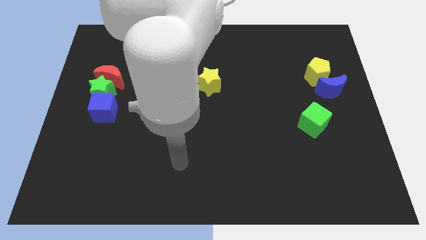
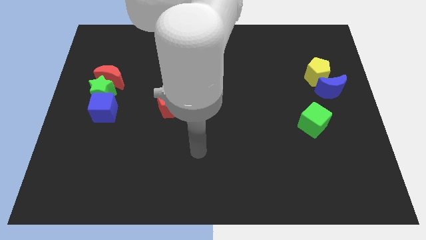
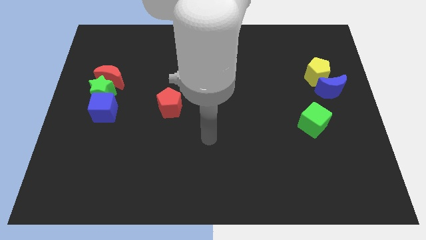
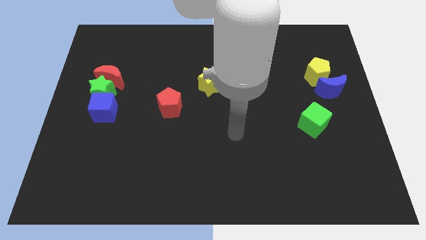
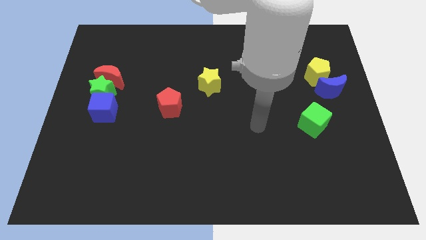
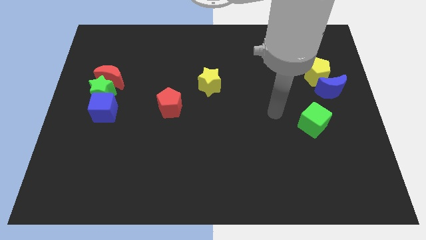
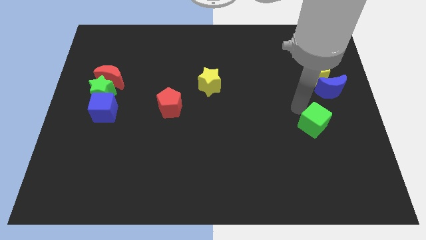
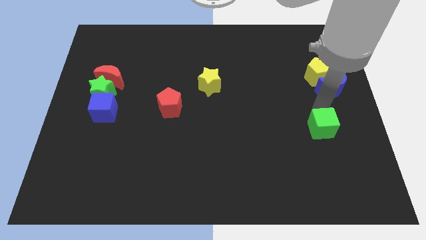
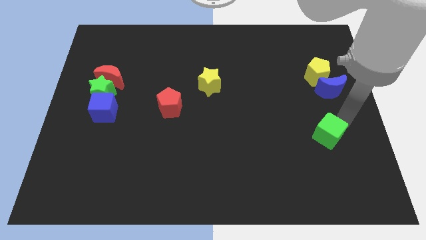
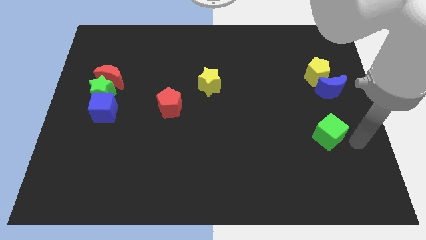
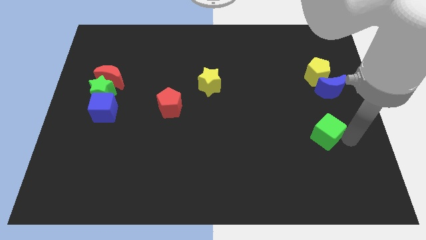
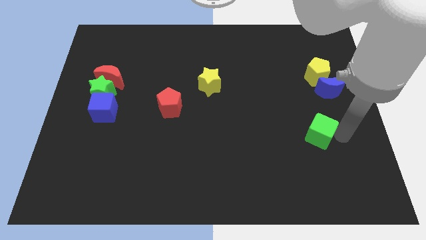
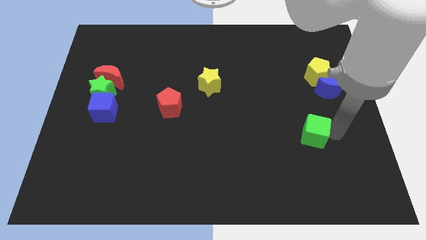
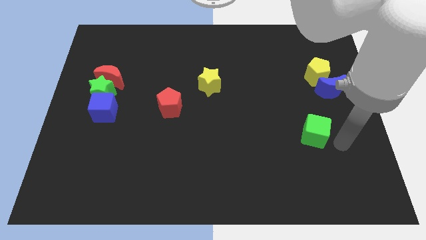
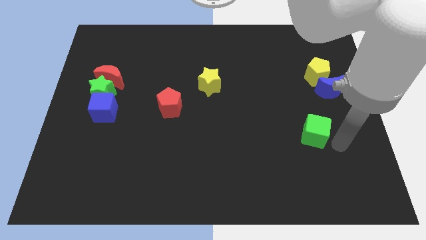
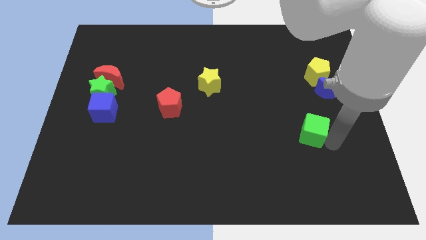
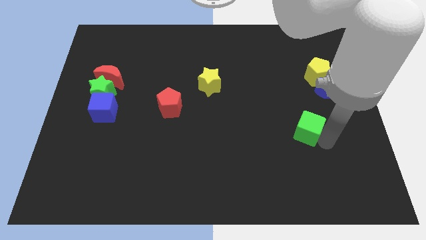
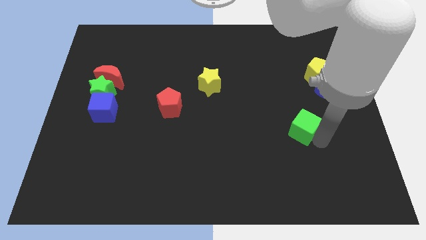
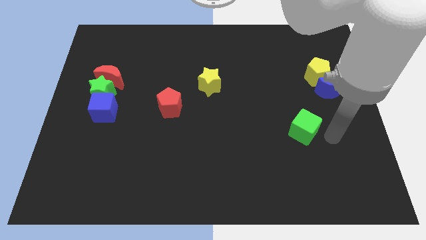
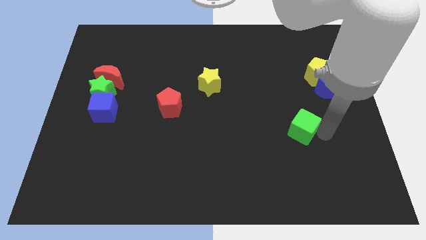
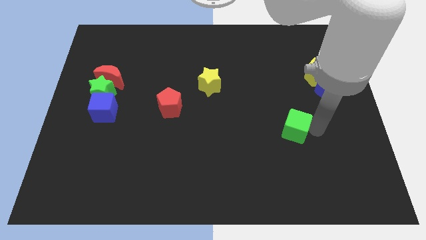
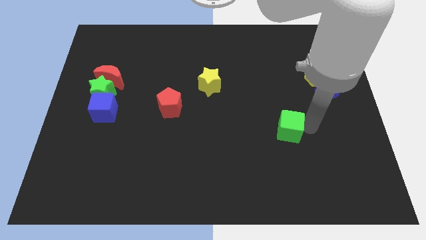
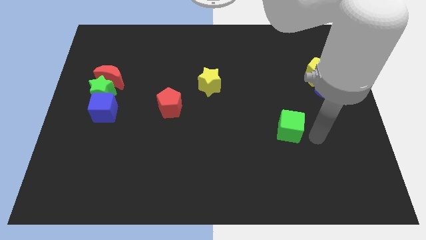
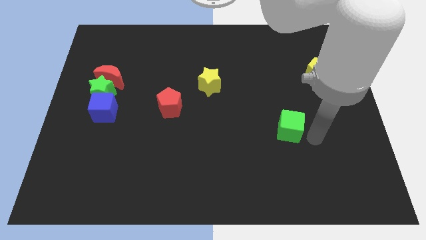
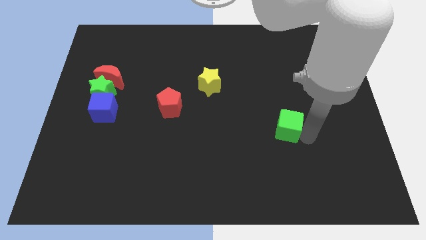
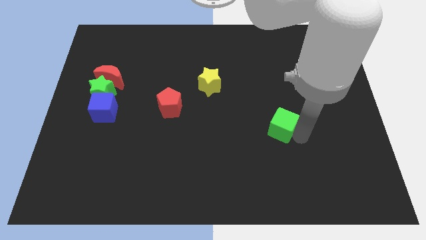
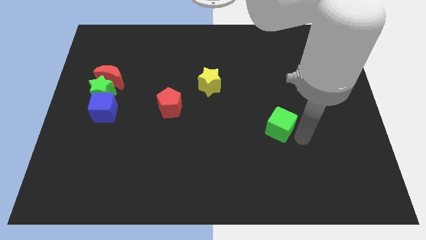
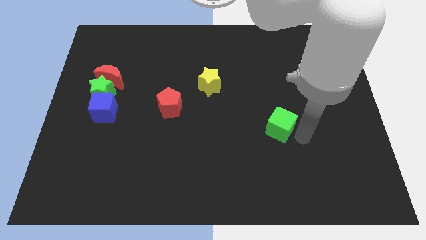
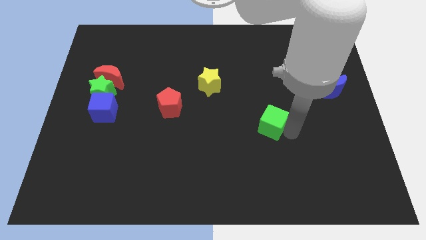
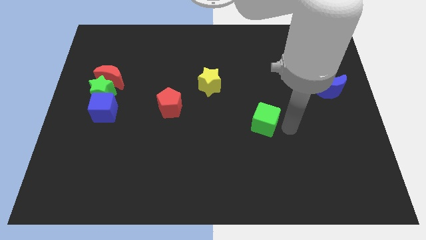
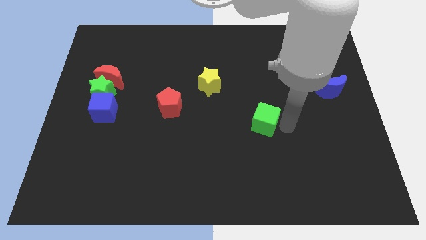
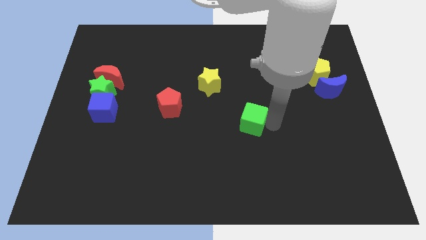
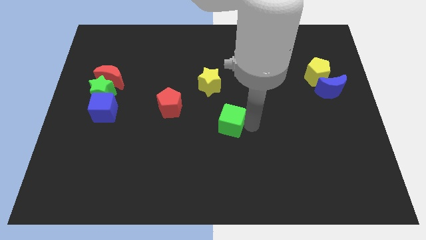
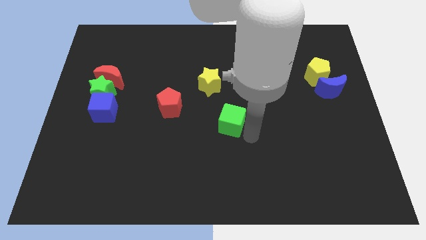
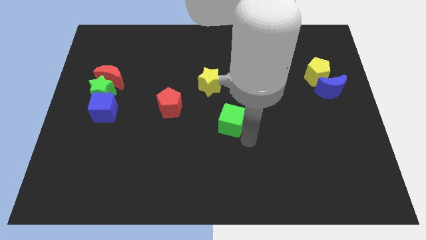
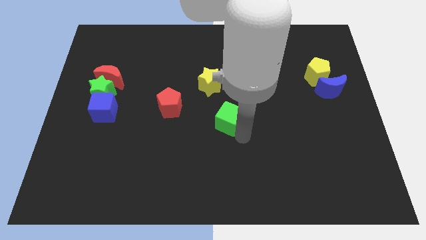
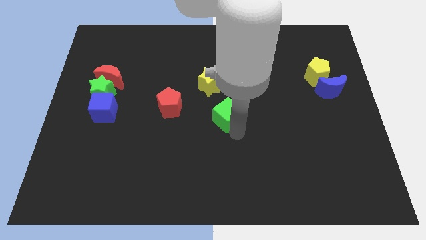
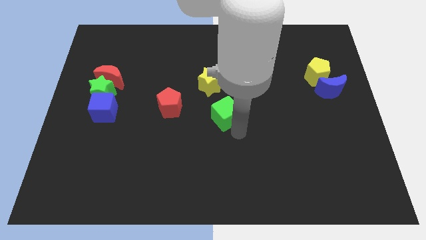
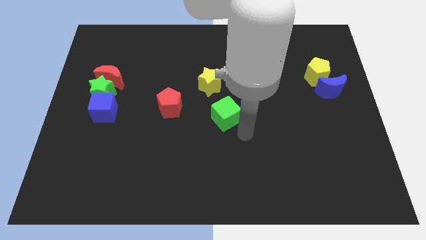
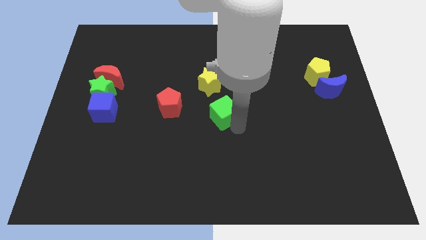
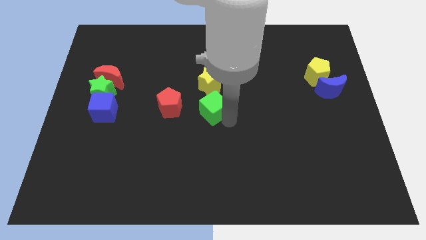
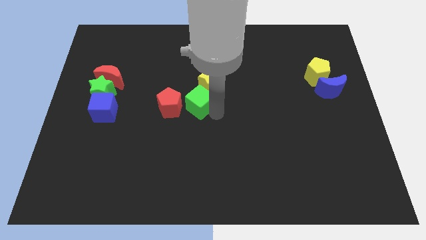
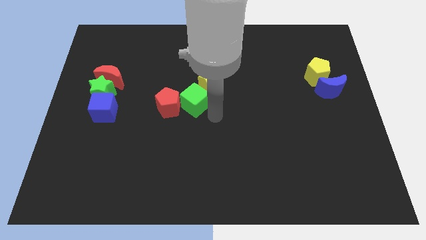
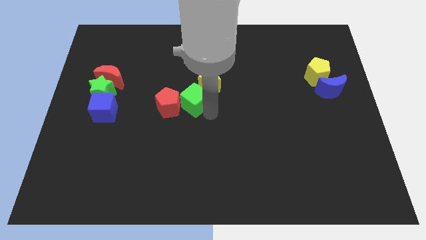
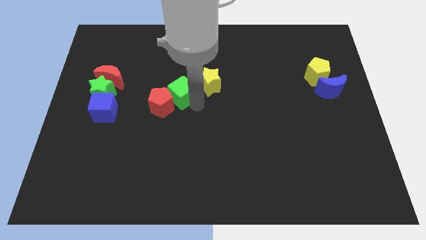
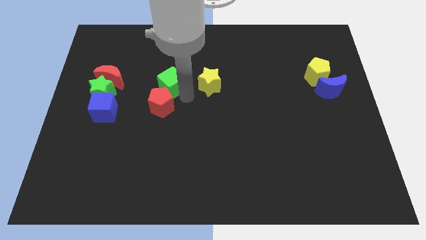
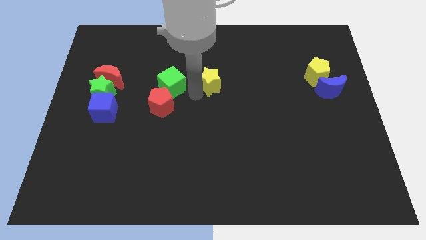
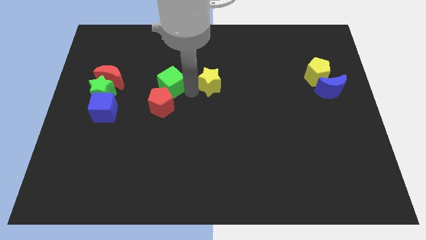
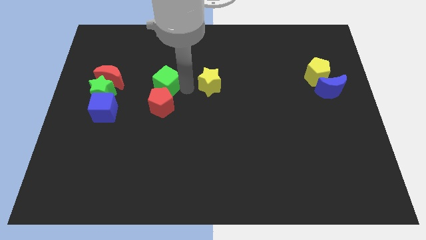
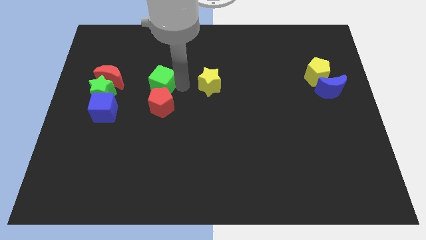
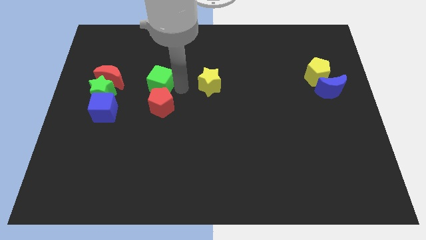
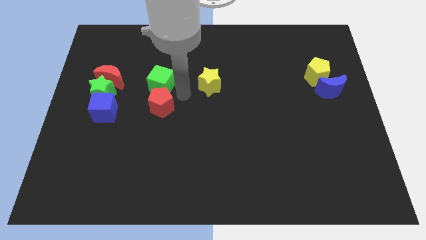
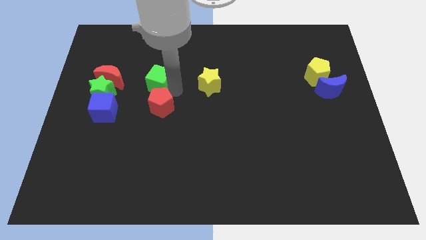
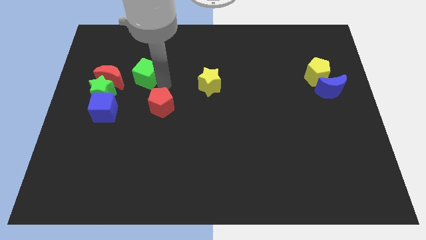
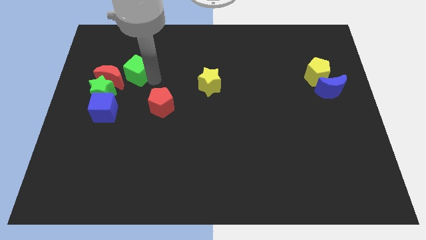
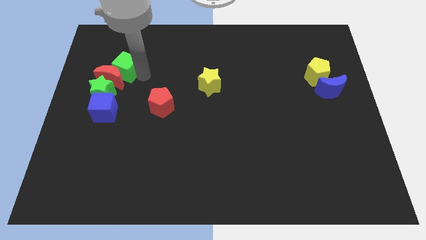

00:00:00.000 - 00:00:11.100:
put the green cube to the top of the green star

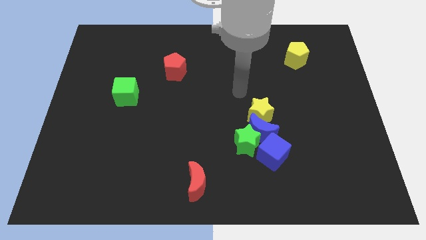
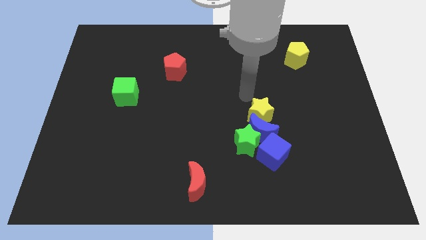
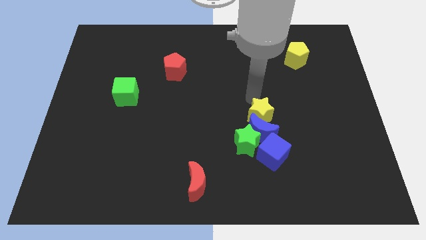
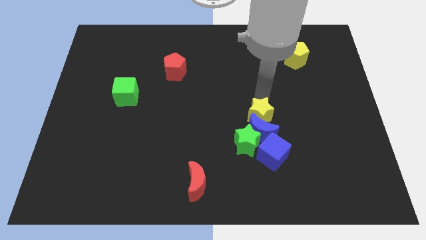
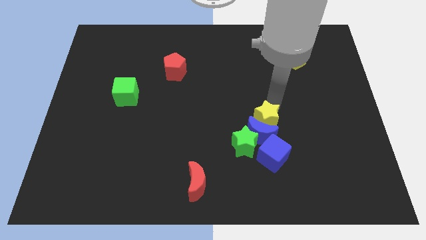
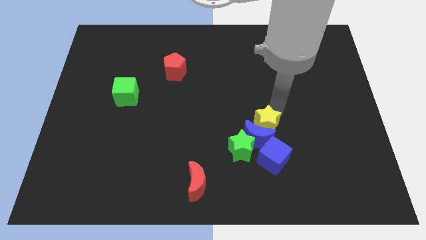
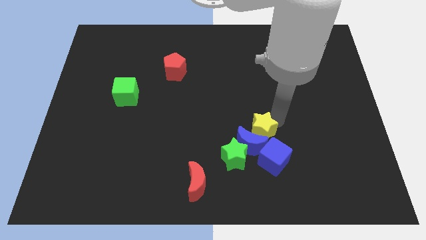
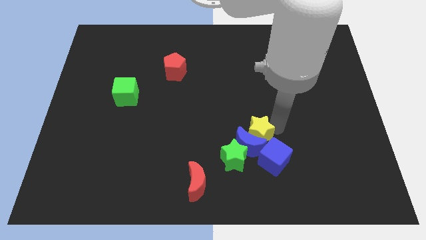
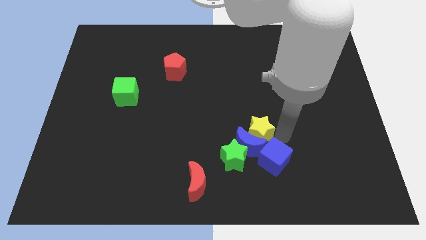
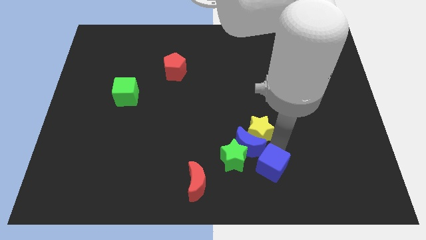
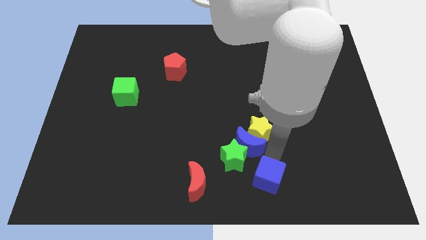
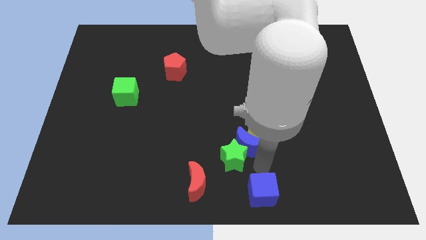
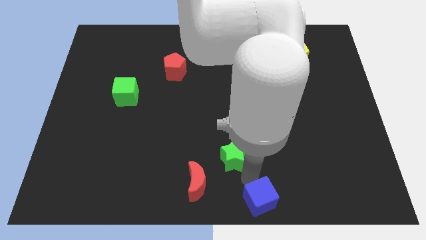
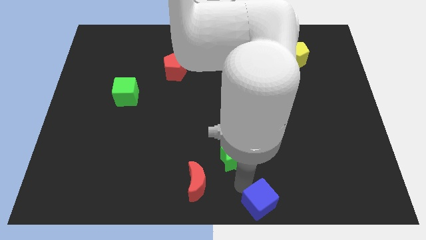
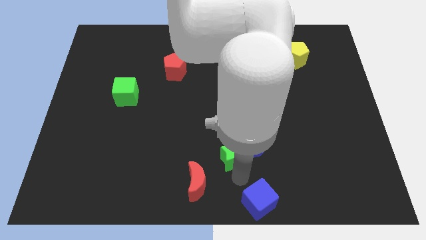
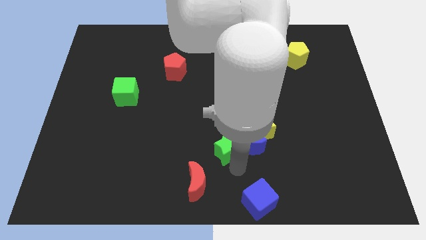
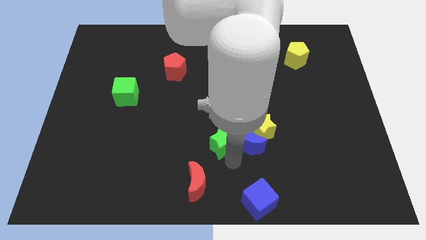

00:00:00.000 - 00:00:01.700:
put the green star to the left side of the yellow star
